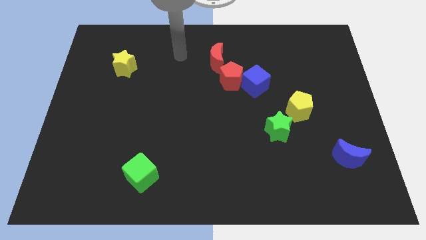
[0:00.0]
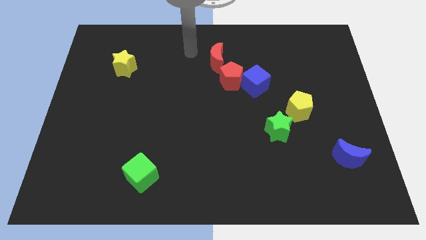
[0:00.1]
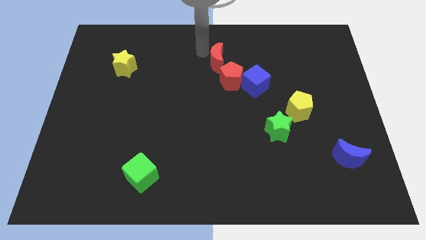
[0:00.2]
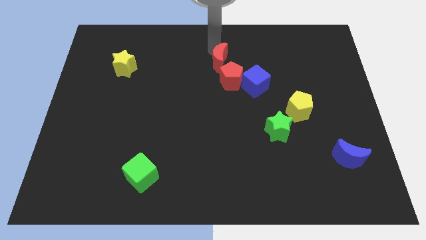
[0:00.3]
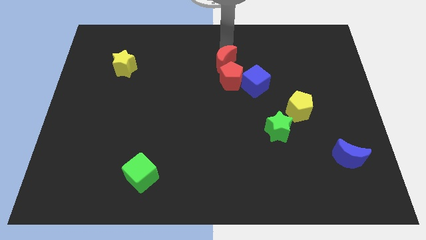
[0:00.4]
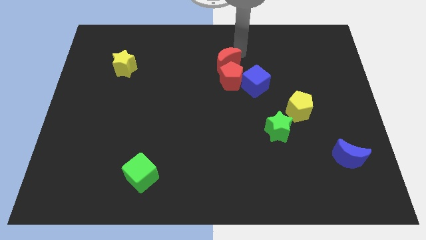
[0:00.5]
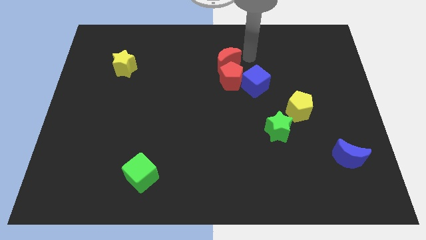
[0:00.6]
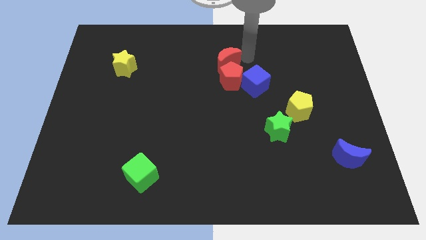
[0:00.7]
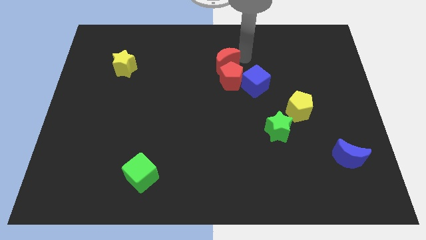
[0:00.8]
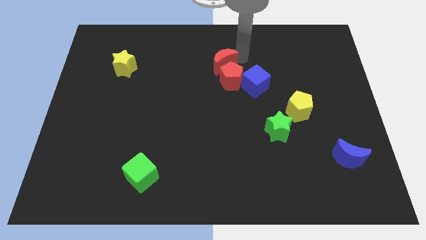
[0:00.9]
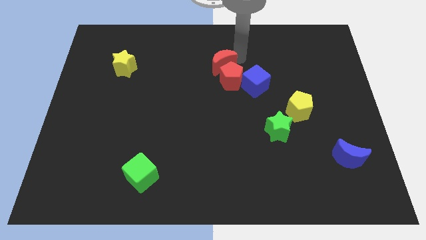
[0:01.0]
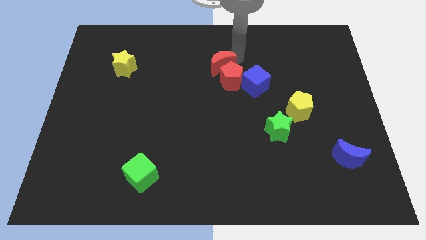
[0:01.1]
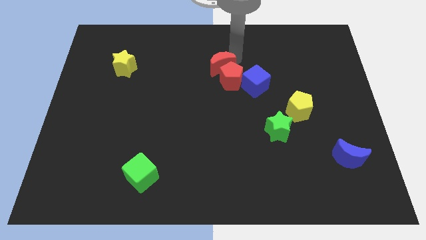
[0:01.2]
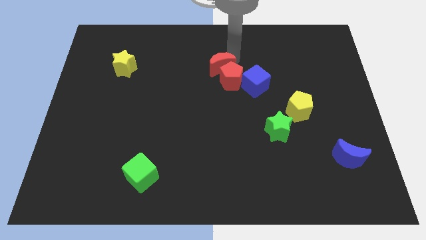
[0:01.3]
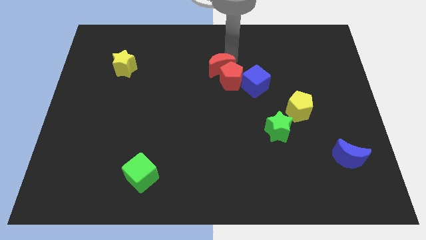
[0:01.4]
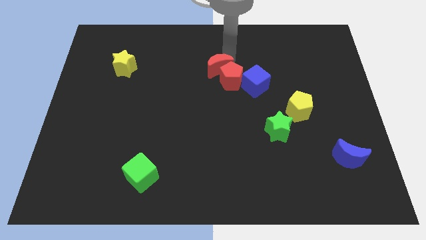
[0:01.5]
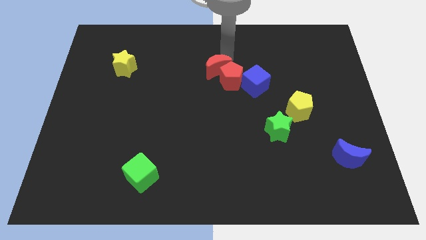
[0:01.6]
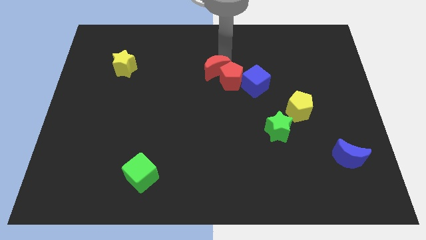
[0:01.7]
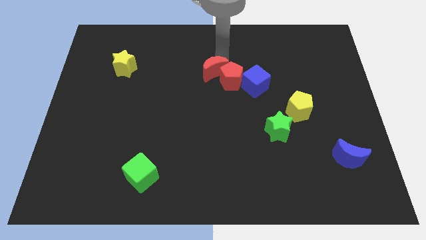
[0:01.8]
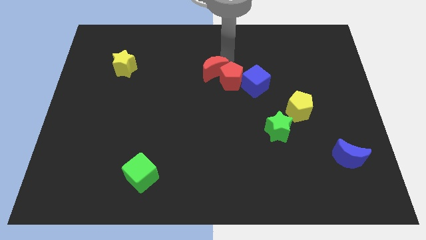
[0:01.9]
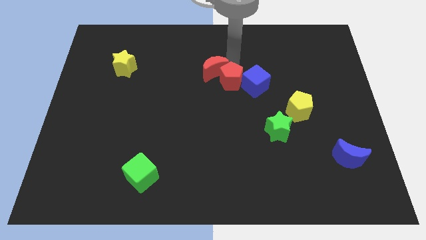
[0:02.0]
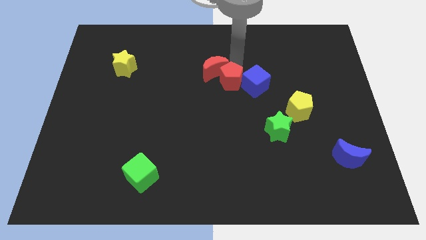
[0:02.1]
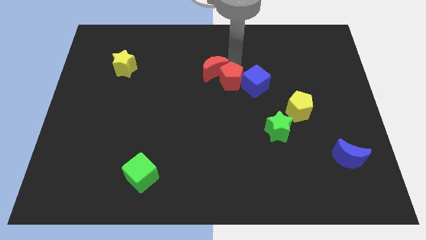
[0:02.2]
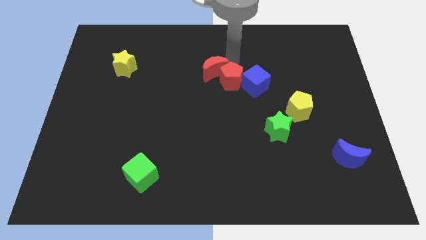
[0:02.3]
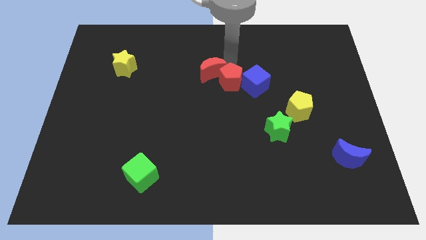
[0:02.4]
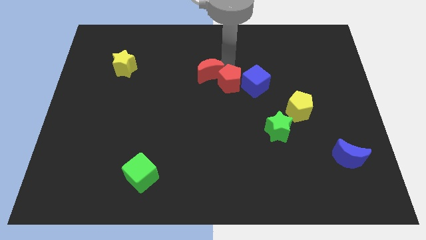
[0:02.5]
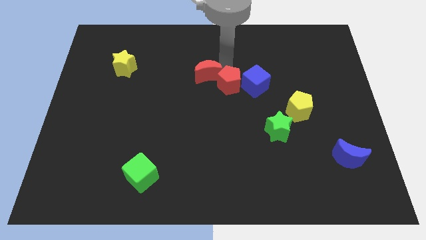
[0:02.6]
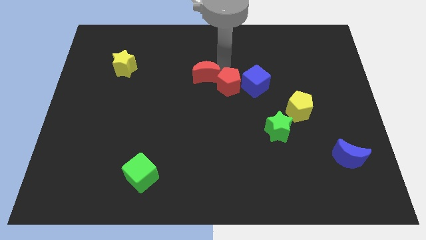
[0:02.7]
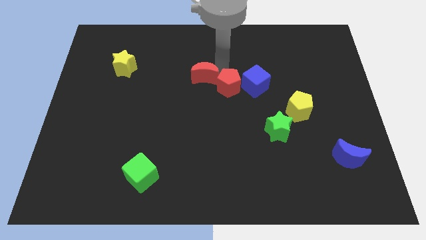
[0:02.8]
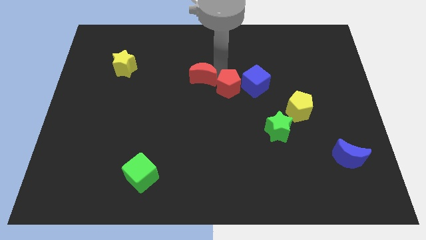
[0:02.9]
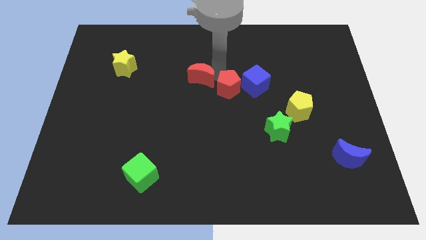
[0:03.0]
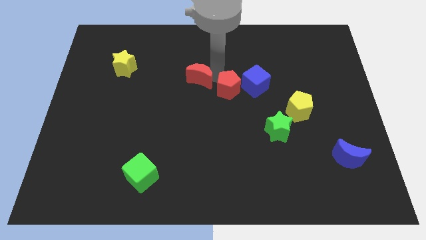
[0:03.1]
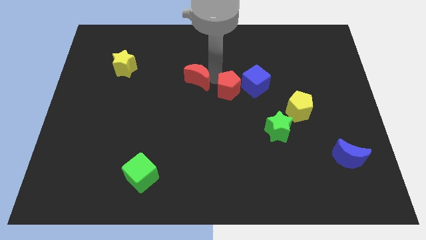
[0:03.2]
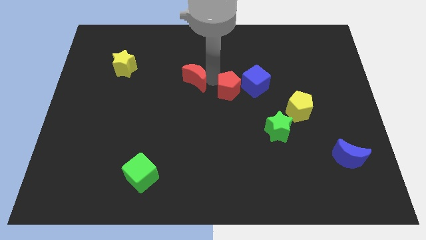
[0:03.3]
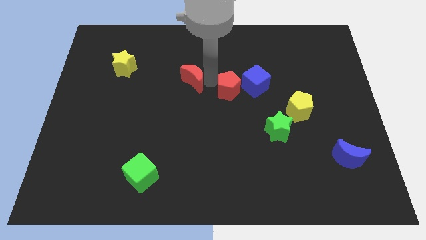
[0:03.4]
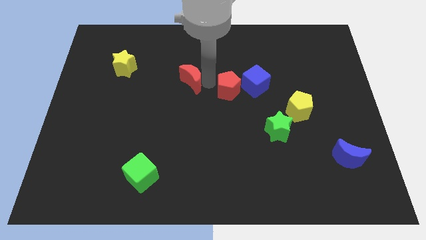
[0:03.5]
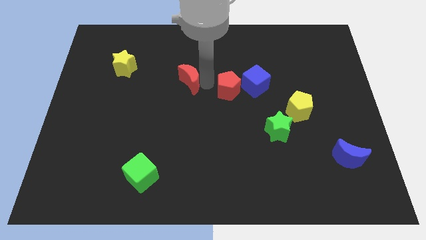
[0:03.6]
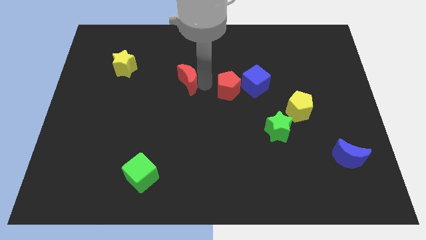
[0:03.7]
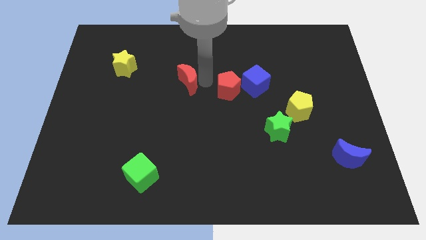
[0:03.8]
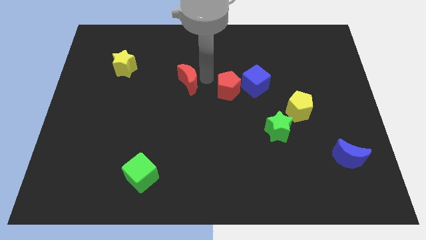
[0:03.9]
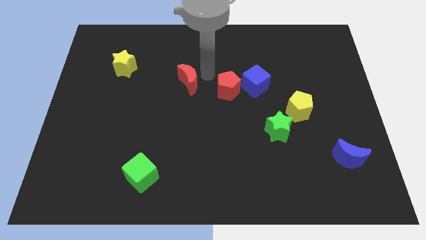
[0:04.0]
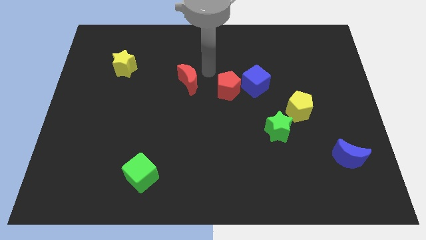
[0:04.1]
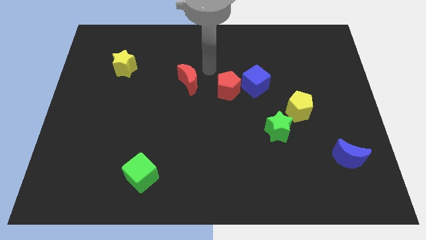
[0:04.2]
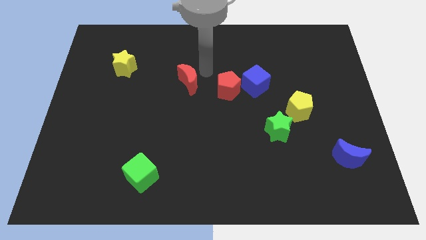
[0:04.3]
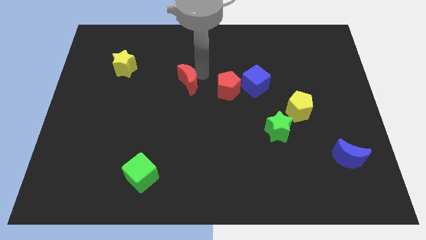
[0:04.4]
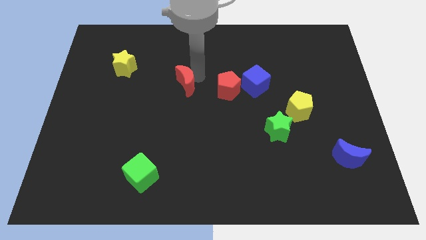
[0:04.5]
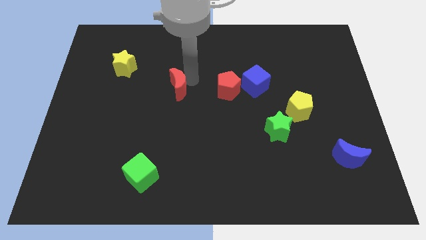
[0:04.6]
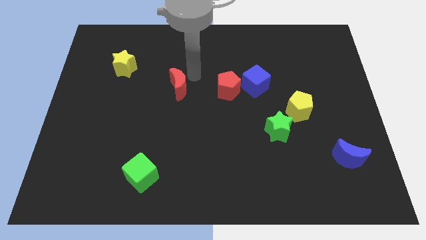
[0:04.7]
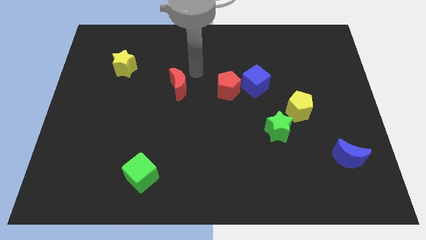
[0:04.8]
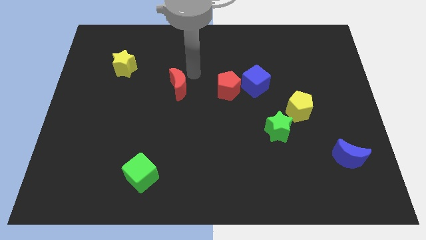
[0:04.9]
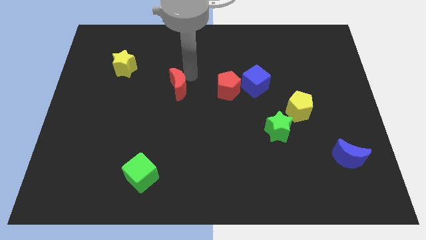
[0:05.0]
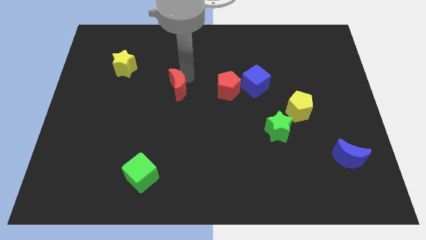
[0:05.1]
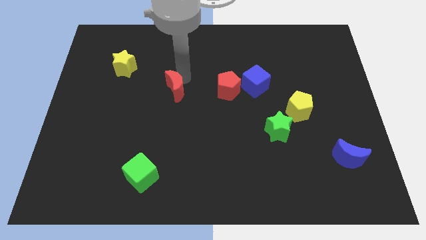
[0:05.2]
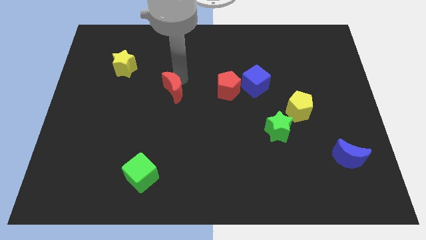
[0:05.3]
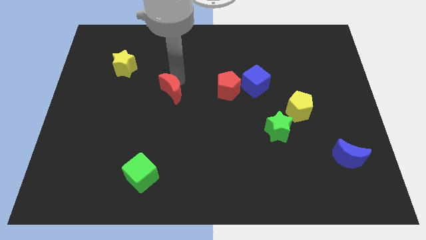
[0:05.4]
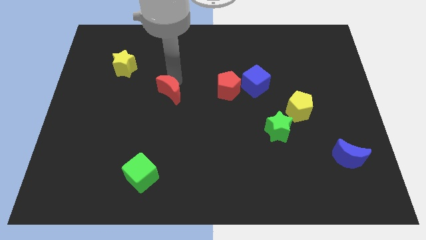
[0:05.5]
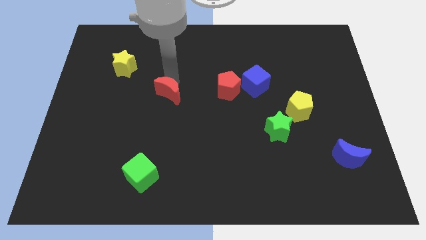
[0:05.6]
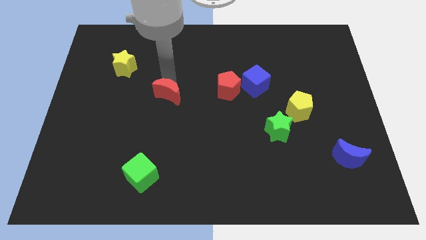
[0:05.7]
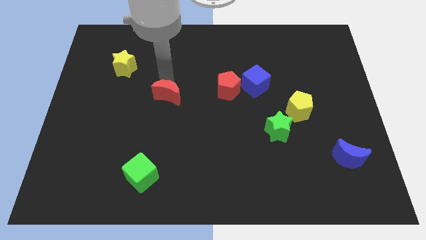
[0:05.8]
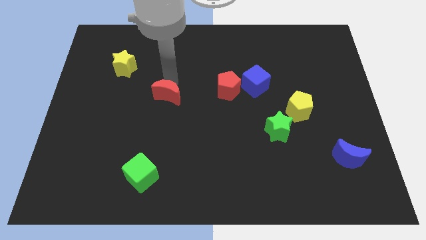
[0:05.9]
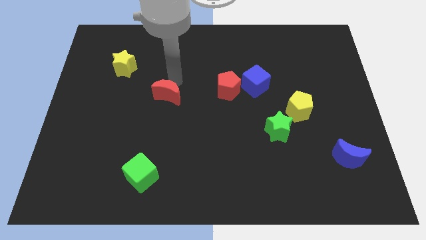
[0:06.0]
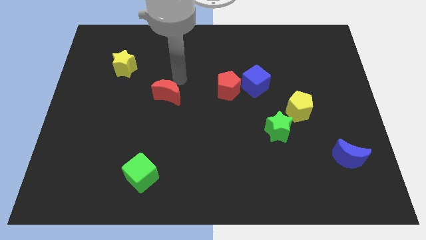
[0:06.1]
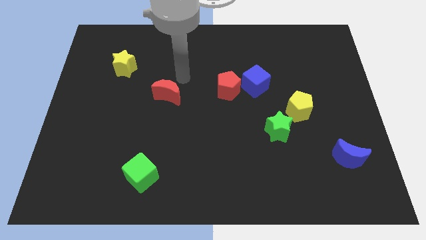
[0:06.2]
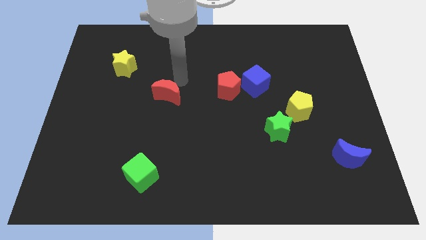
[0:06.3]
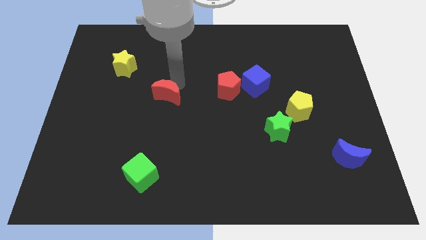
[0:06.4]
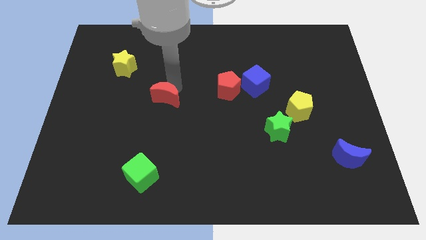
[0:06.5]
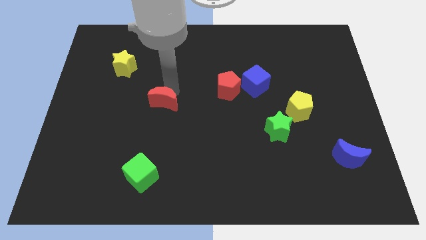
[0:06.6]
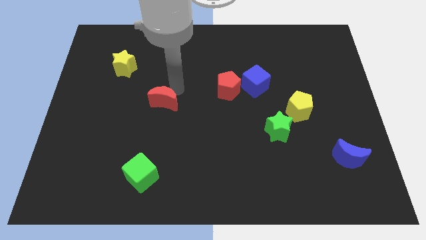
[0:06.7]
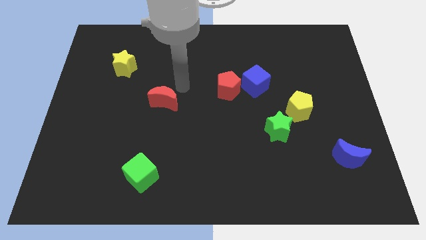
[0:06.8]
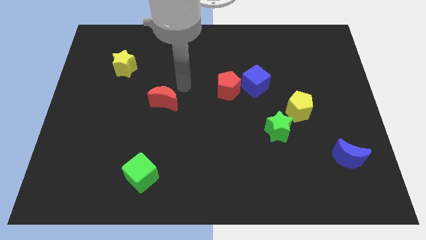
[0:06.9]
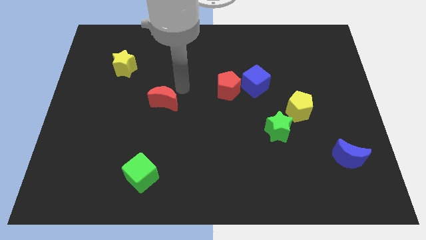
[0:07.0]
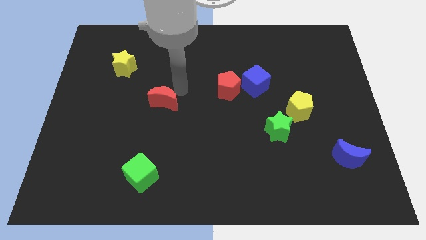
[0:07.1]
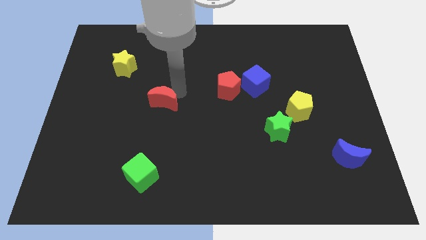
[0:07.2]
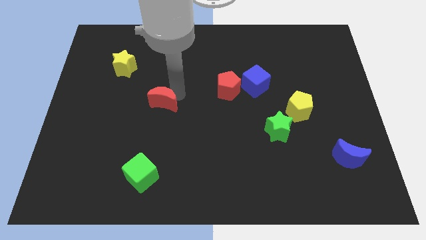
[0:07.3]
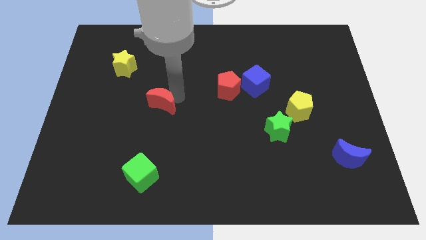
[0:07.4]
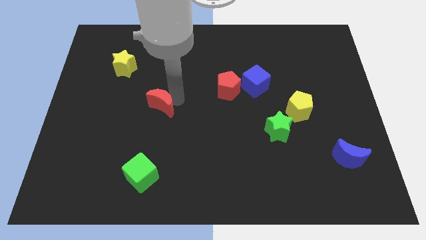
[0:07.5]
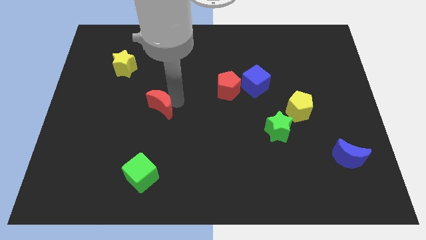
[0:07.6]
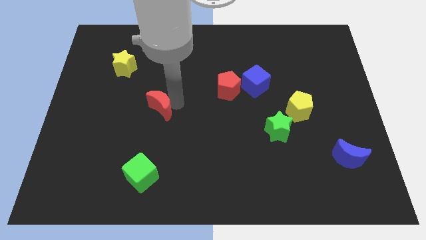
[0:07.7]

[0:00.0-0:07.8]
push the red moon downwards and to the left diagonally

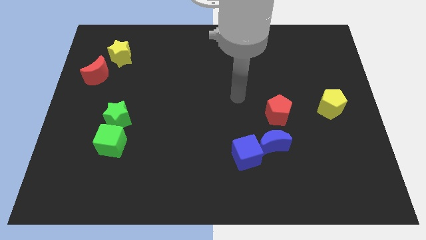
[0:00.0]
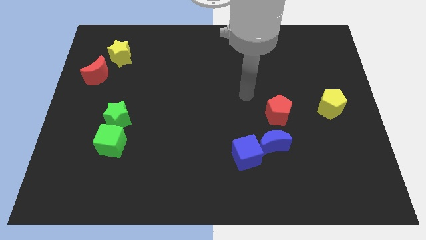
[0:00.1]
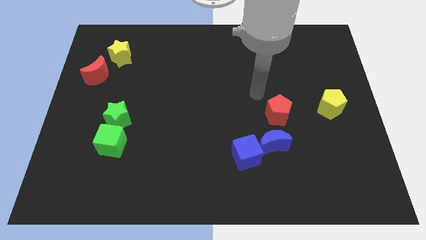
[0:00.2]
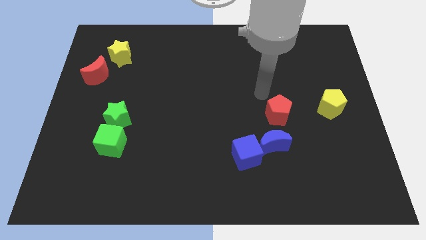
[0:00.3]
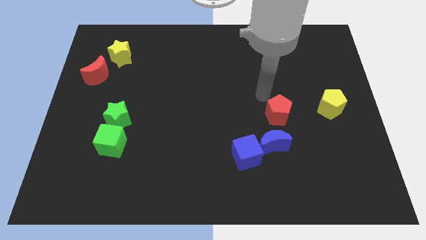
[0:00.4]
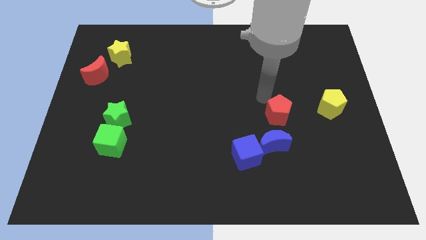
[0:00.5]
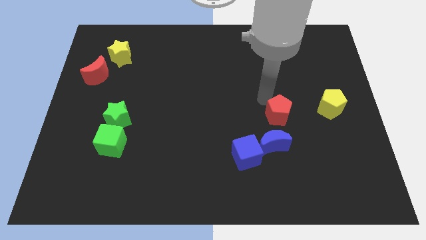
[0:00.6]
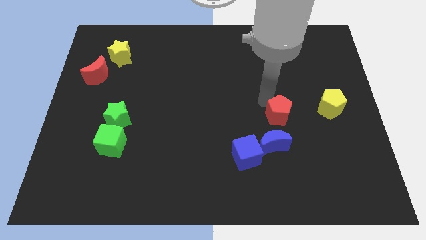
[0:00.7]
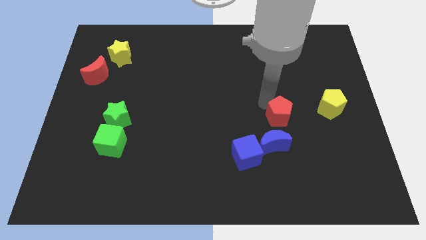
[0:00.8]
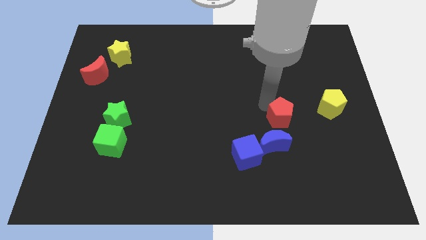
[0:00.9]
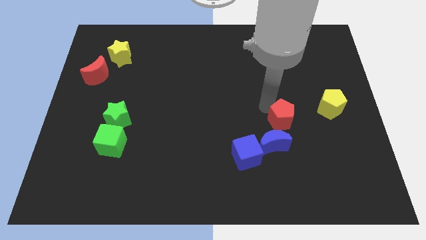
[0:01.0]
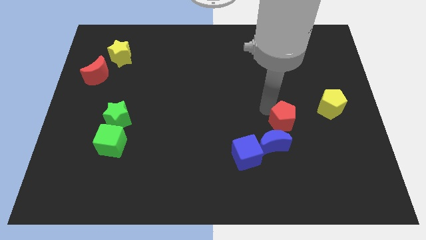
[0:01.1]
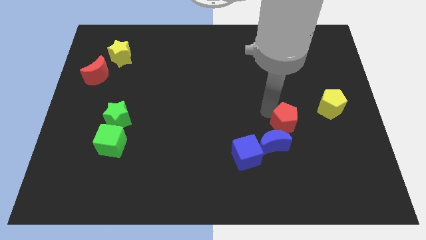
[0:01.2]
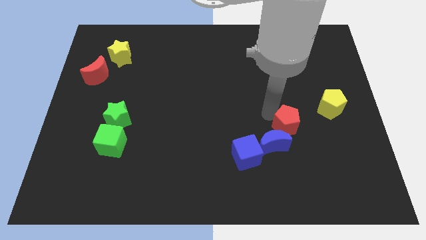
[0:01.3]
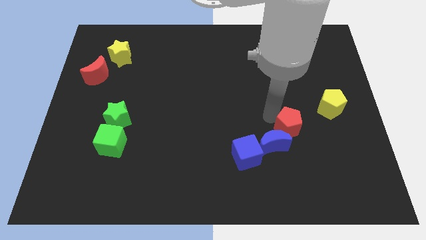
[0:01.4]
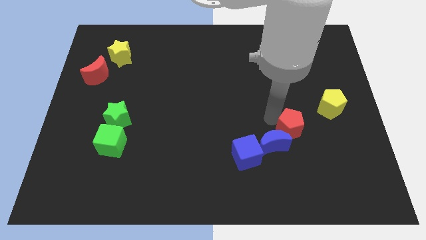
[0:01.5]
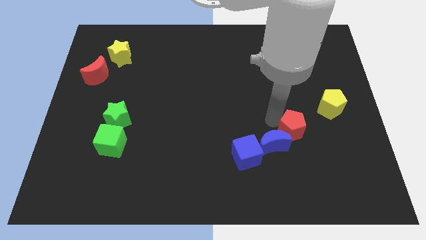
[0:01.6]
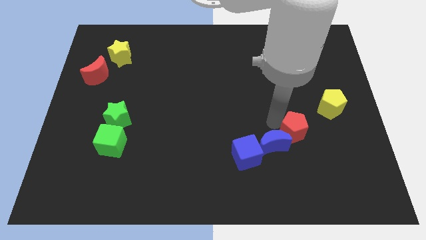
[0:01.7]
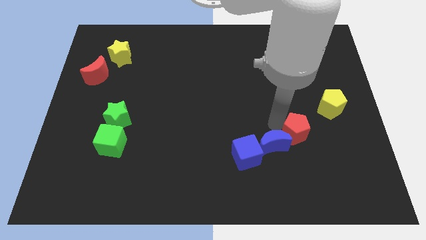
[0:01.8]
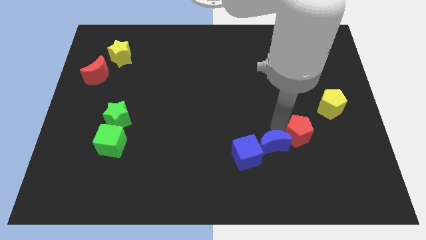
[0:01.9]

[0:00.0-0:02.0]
move the red pentagon a little down and then right
